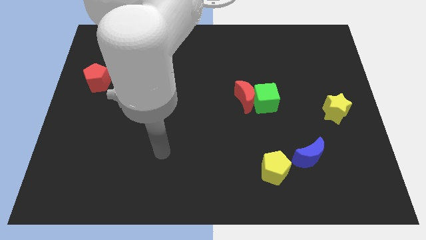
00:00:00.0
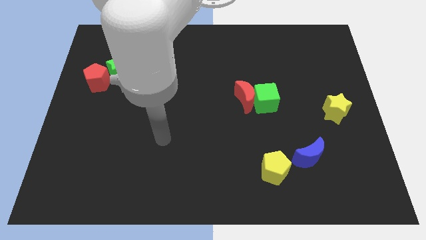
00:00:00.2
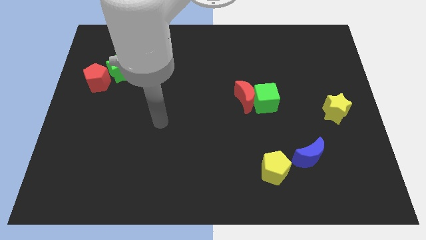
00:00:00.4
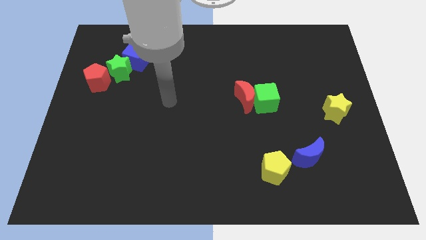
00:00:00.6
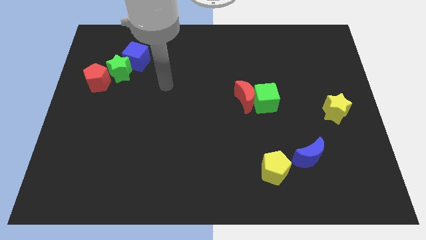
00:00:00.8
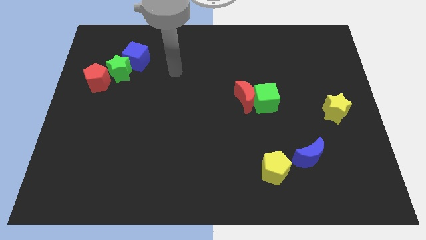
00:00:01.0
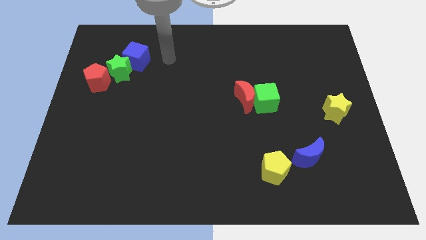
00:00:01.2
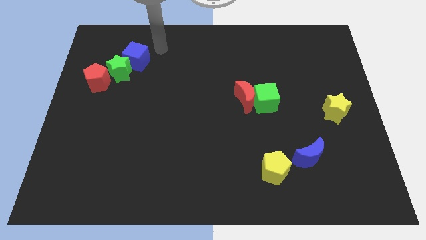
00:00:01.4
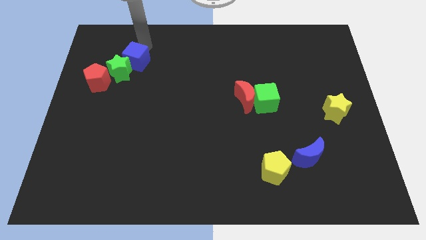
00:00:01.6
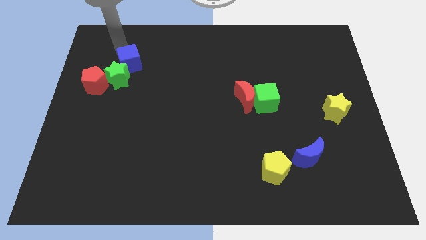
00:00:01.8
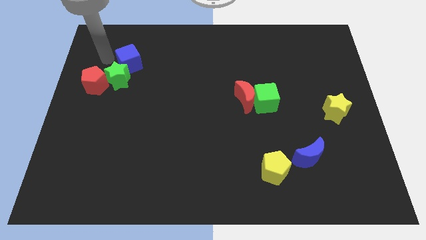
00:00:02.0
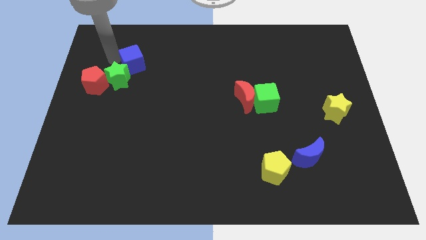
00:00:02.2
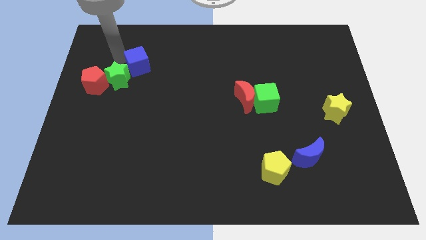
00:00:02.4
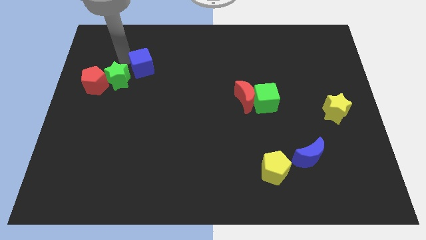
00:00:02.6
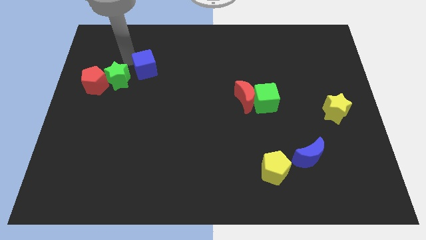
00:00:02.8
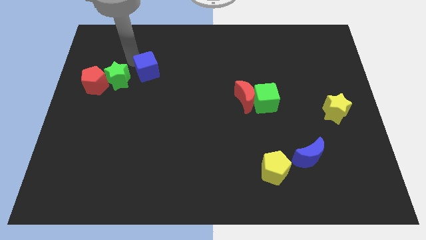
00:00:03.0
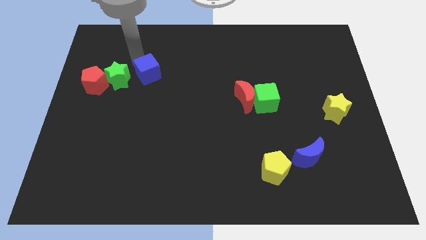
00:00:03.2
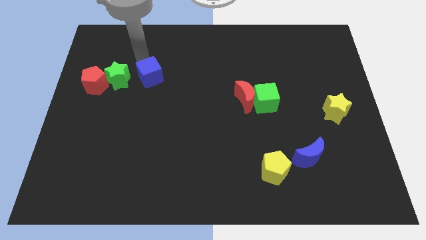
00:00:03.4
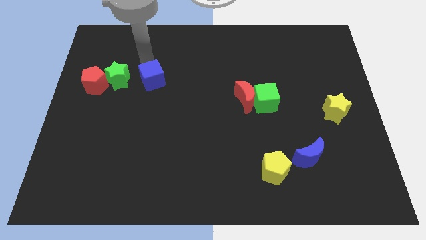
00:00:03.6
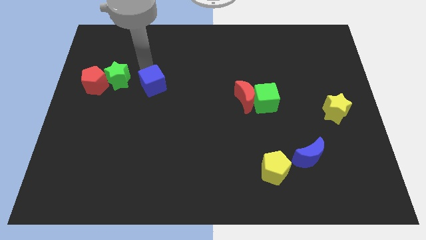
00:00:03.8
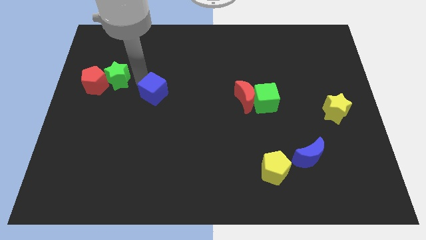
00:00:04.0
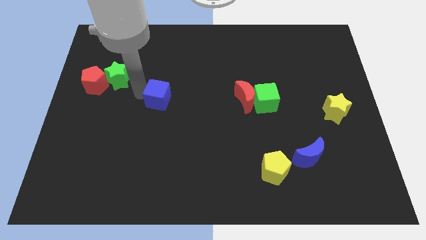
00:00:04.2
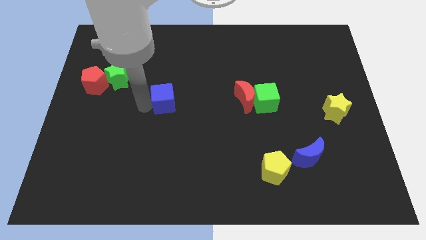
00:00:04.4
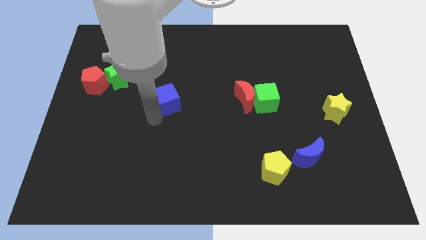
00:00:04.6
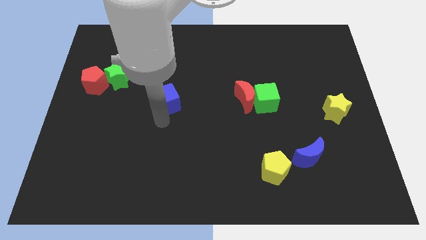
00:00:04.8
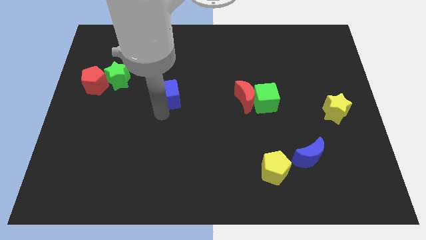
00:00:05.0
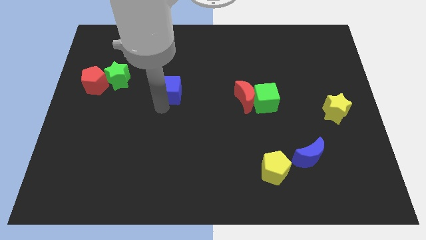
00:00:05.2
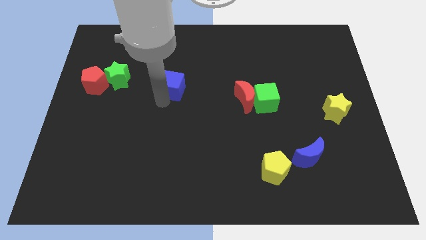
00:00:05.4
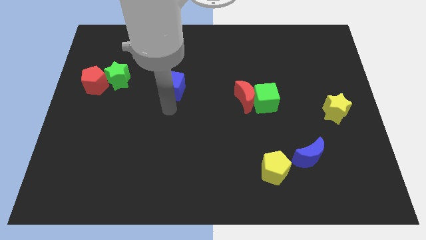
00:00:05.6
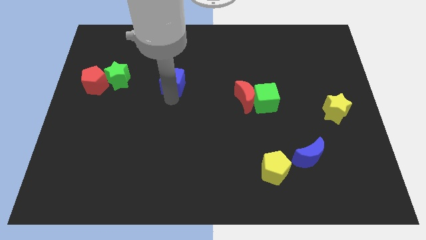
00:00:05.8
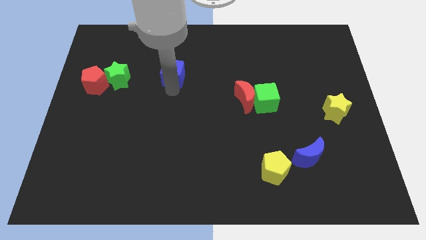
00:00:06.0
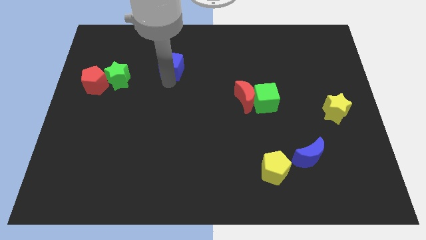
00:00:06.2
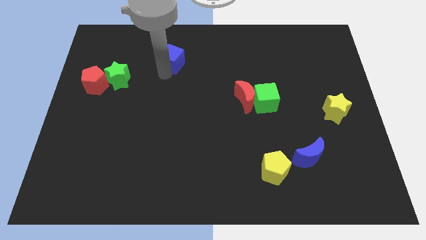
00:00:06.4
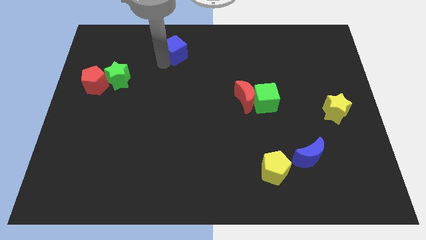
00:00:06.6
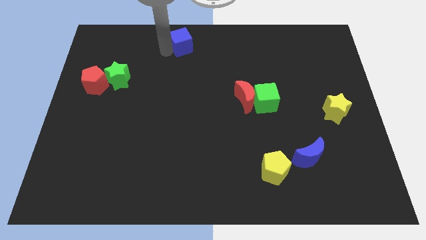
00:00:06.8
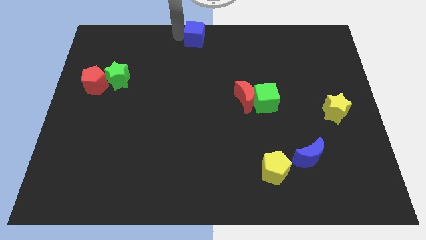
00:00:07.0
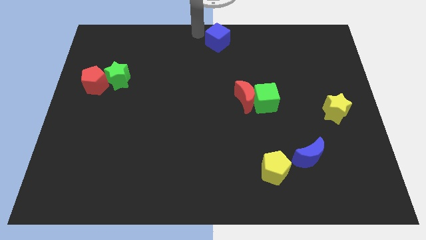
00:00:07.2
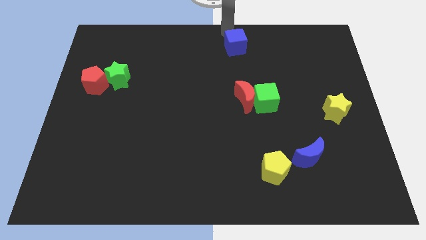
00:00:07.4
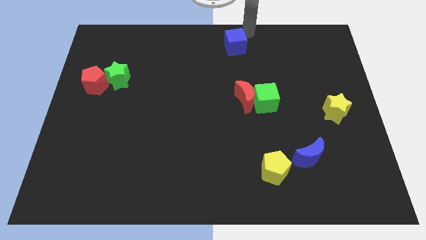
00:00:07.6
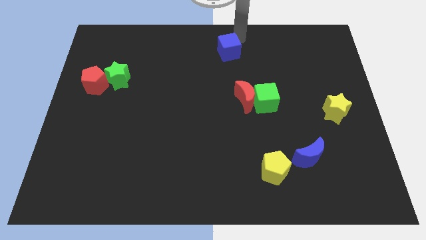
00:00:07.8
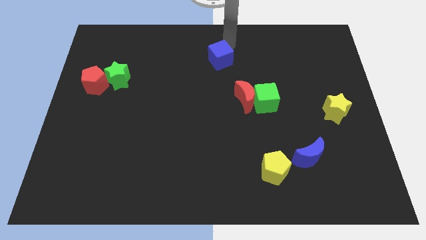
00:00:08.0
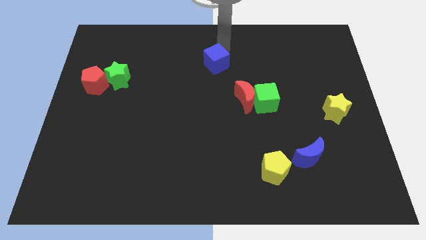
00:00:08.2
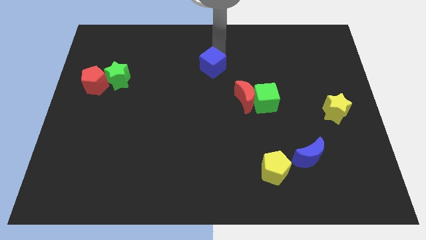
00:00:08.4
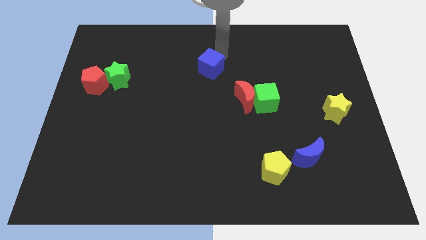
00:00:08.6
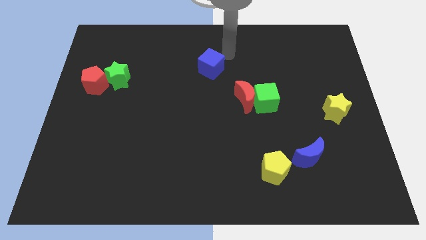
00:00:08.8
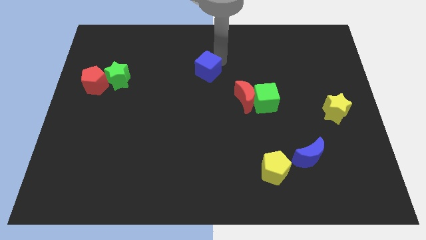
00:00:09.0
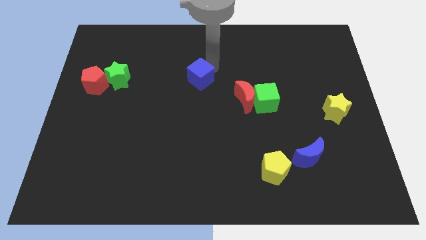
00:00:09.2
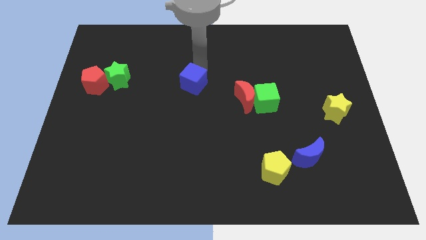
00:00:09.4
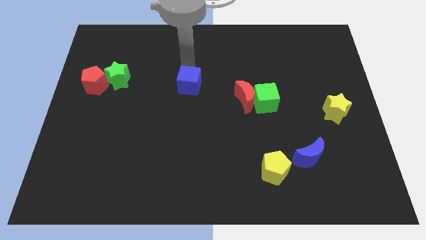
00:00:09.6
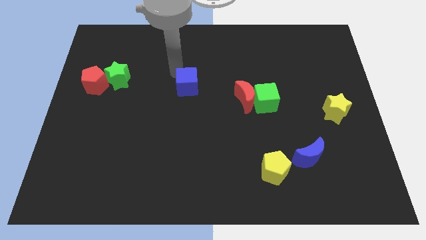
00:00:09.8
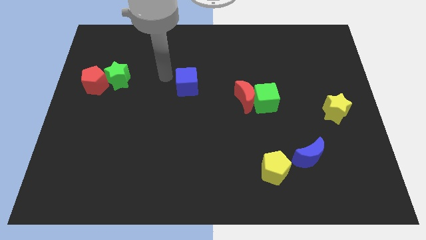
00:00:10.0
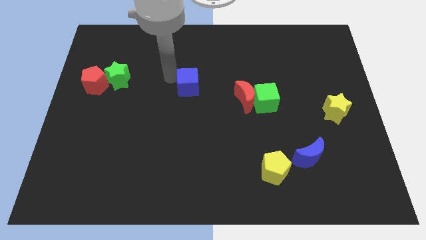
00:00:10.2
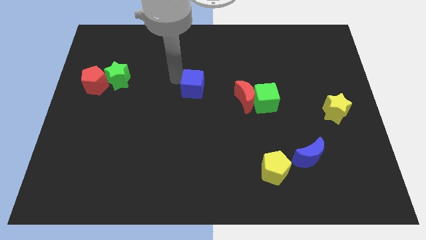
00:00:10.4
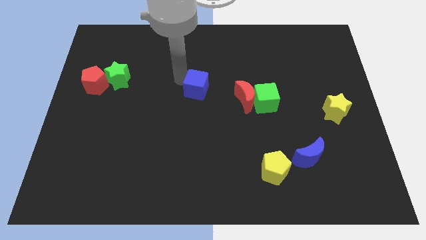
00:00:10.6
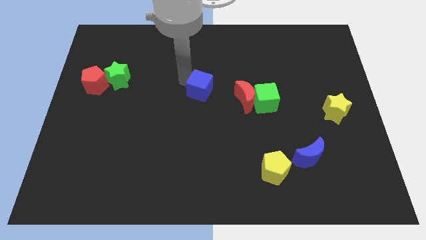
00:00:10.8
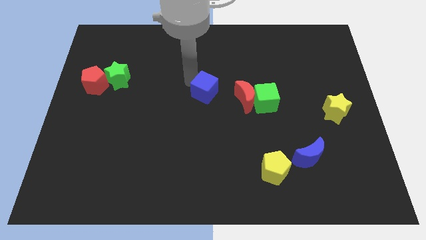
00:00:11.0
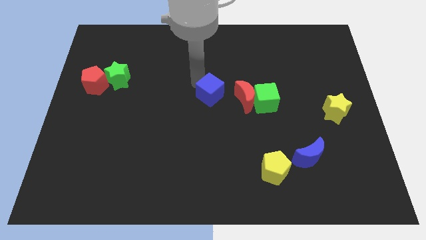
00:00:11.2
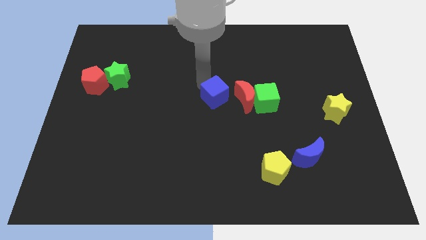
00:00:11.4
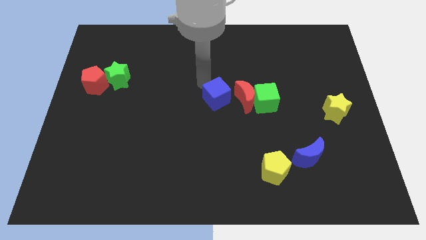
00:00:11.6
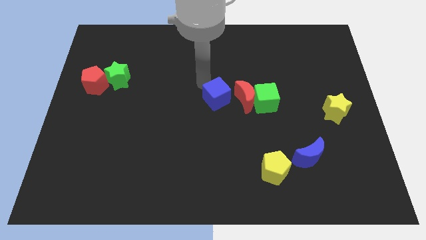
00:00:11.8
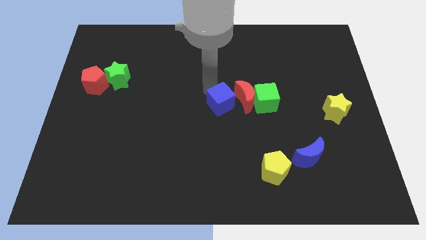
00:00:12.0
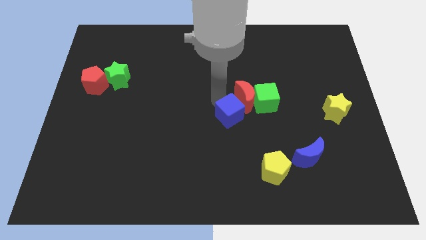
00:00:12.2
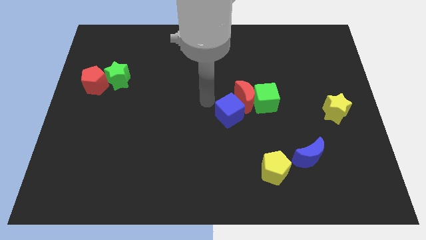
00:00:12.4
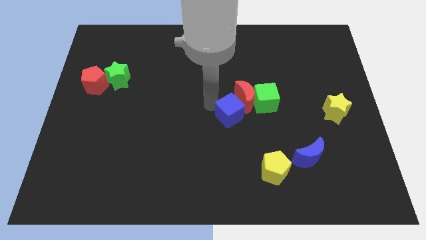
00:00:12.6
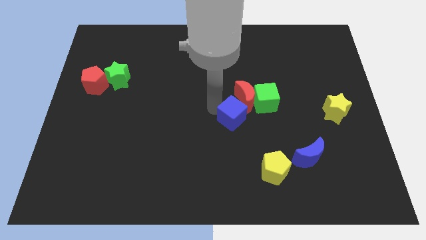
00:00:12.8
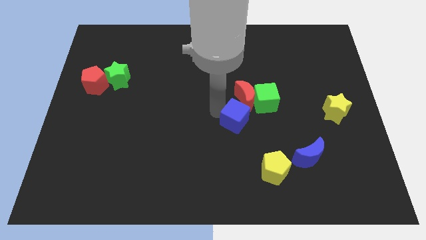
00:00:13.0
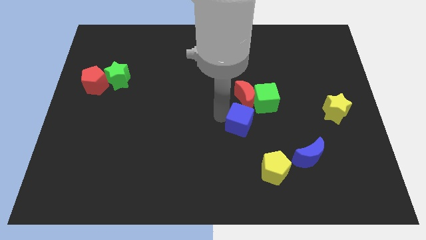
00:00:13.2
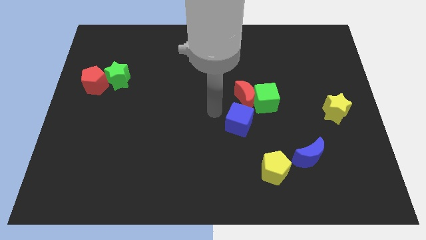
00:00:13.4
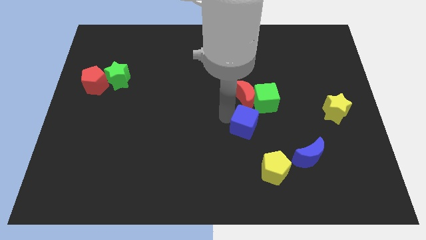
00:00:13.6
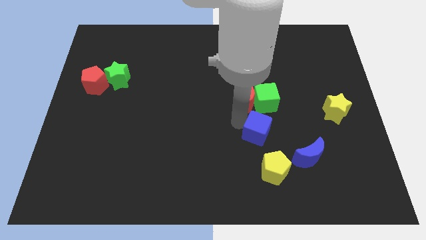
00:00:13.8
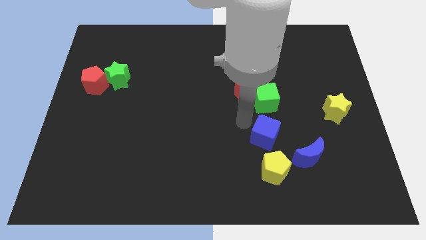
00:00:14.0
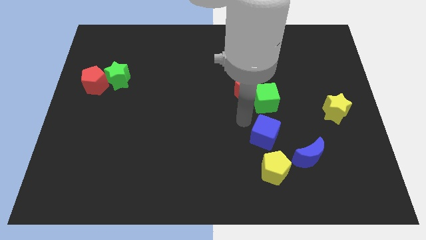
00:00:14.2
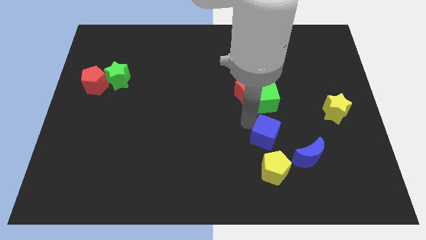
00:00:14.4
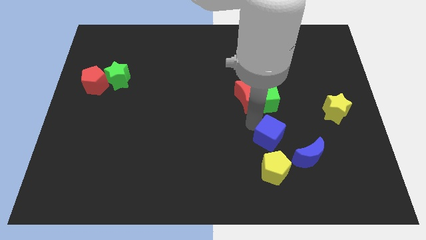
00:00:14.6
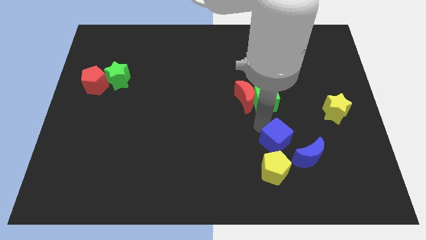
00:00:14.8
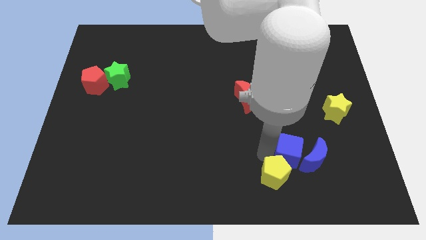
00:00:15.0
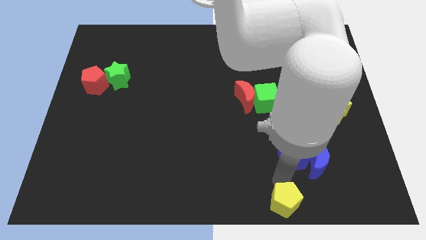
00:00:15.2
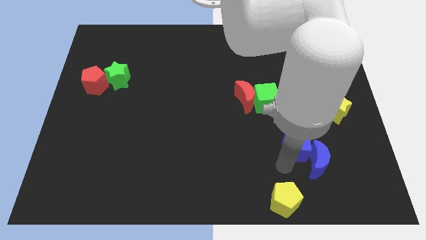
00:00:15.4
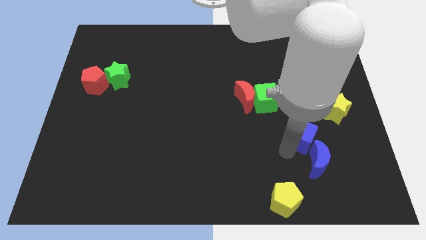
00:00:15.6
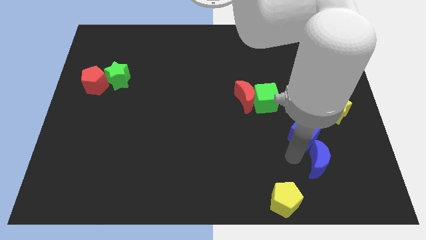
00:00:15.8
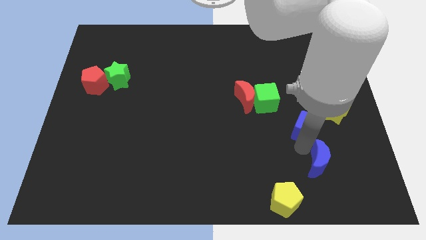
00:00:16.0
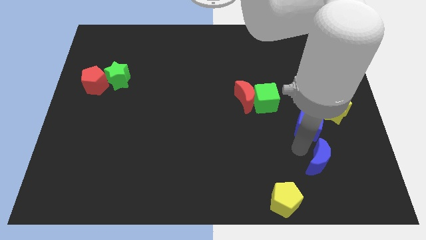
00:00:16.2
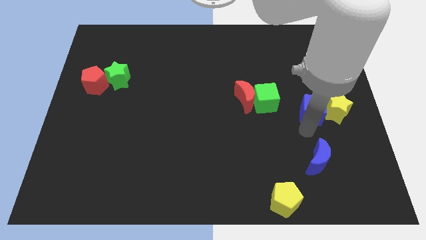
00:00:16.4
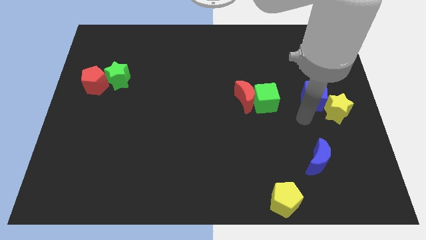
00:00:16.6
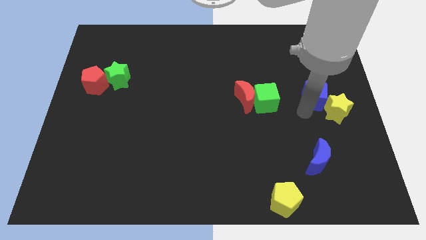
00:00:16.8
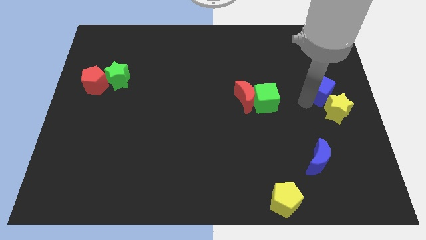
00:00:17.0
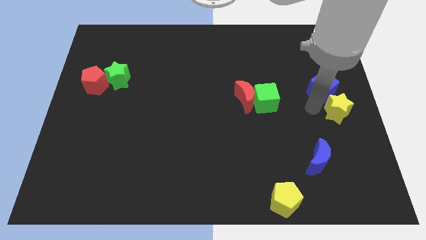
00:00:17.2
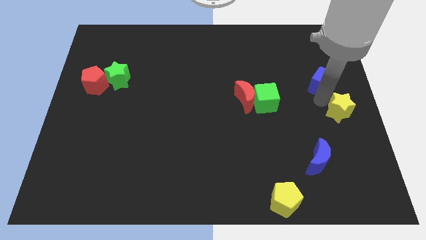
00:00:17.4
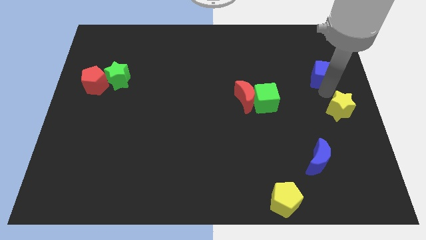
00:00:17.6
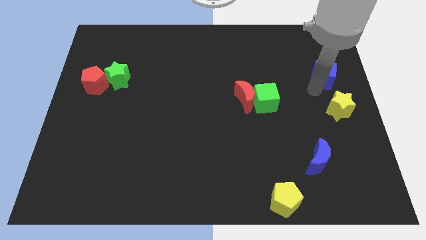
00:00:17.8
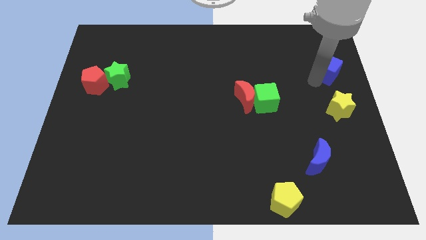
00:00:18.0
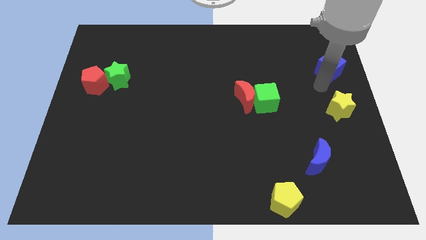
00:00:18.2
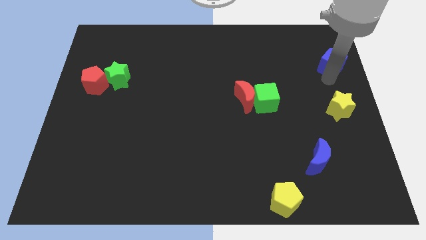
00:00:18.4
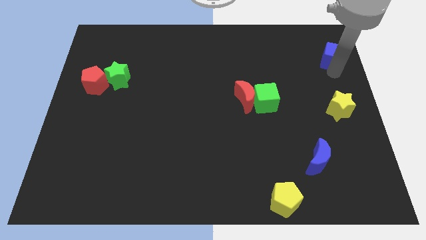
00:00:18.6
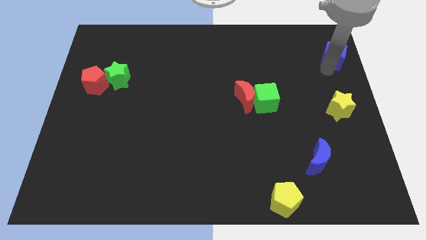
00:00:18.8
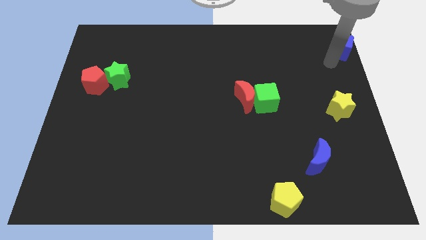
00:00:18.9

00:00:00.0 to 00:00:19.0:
put the blue cube to the top right of the board
